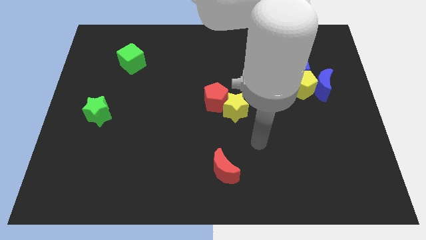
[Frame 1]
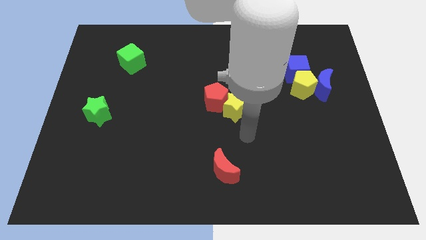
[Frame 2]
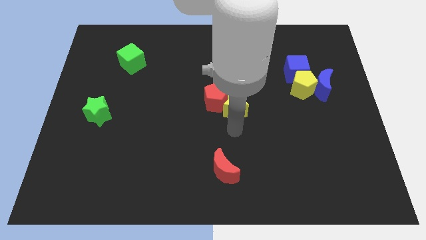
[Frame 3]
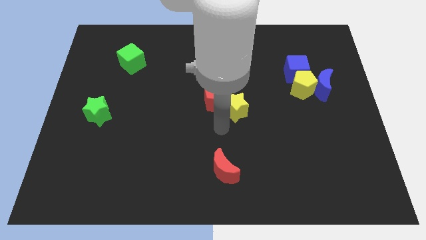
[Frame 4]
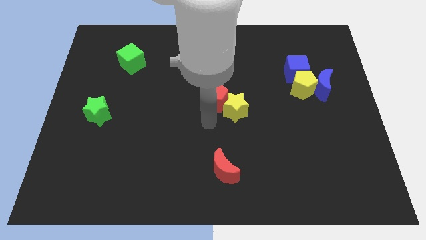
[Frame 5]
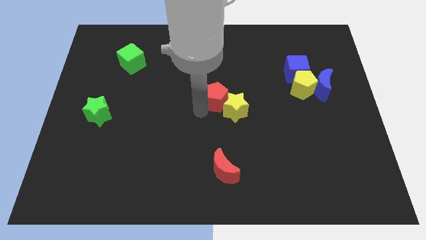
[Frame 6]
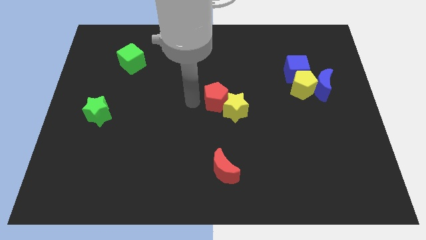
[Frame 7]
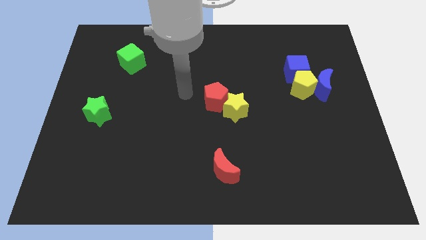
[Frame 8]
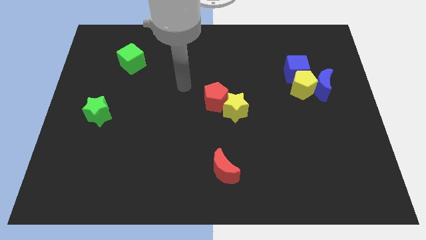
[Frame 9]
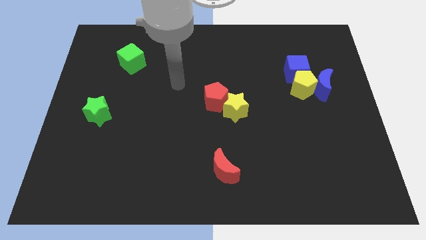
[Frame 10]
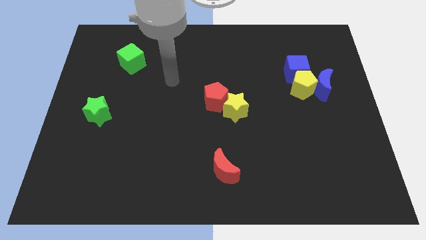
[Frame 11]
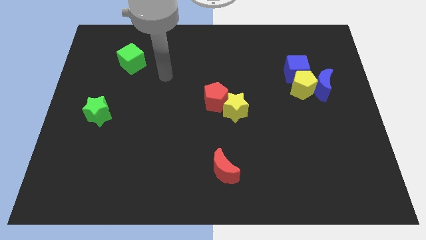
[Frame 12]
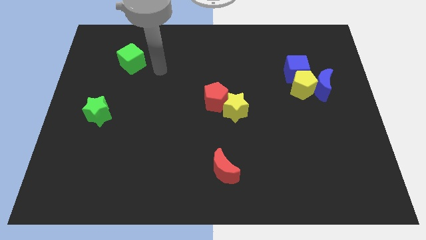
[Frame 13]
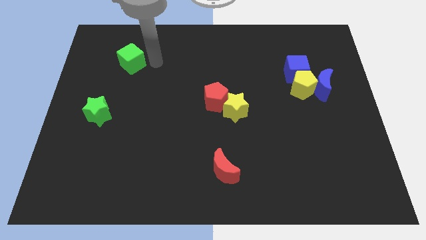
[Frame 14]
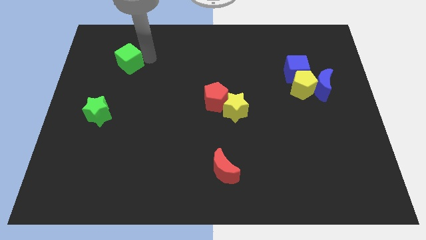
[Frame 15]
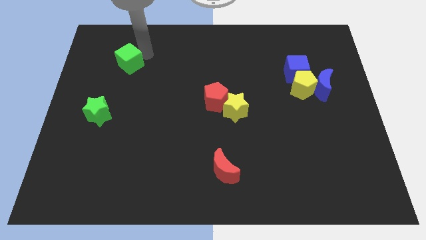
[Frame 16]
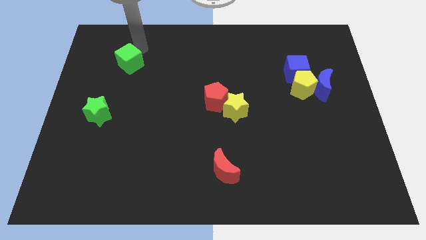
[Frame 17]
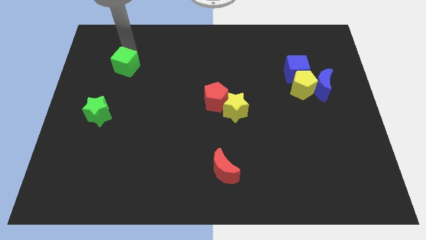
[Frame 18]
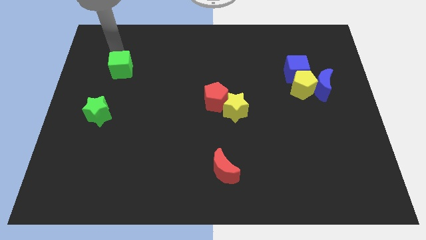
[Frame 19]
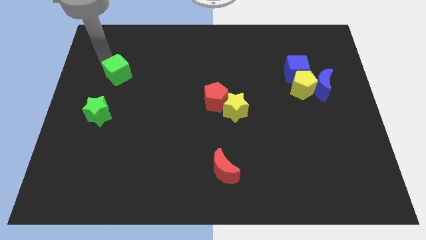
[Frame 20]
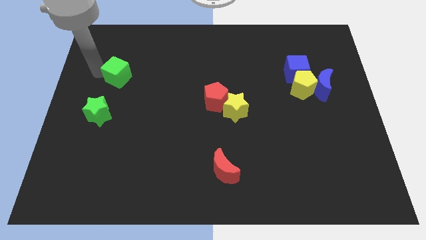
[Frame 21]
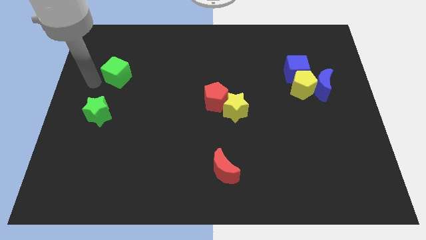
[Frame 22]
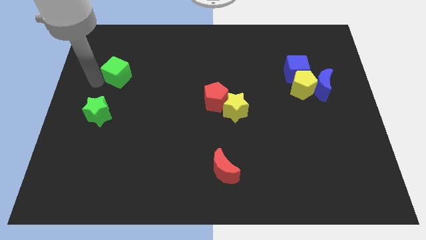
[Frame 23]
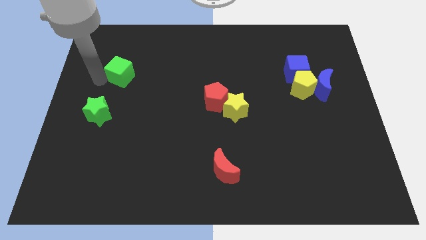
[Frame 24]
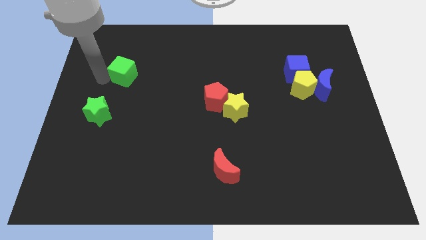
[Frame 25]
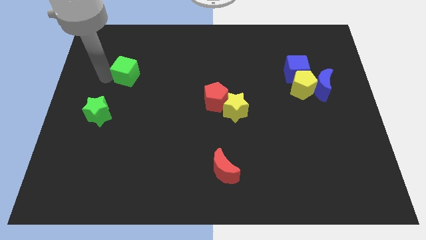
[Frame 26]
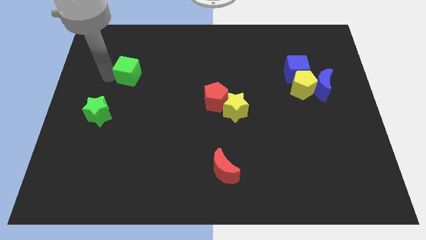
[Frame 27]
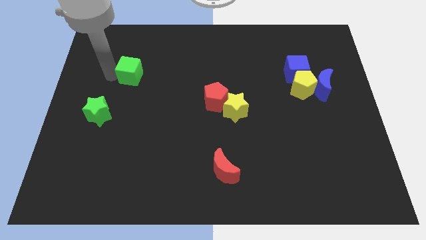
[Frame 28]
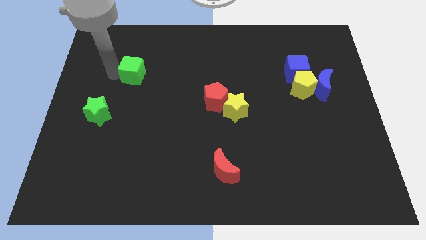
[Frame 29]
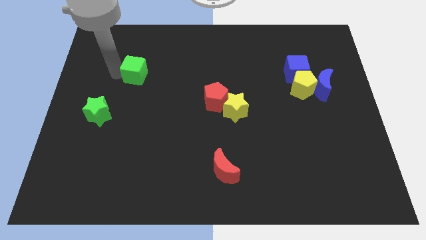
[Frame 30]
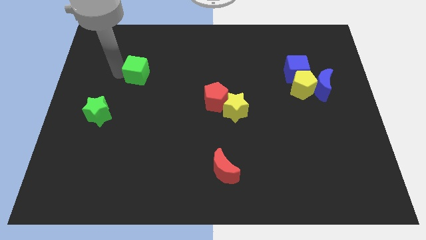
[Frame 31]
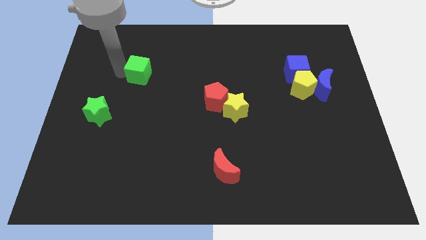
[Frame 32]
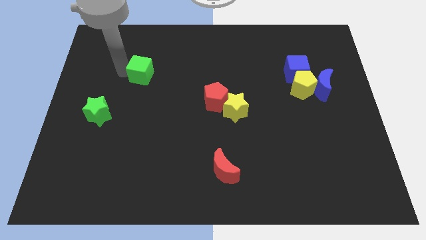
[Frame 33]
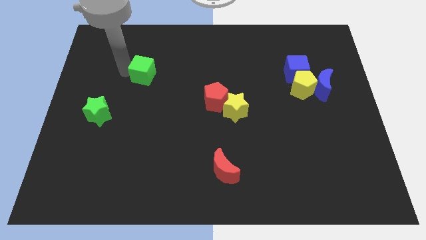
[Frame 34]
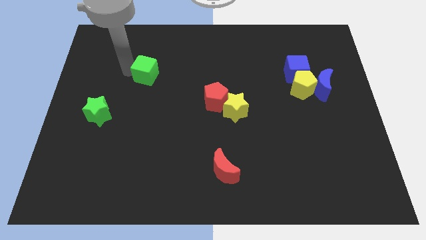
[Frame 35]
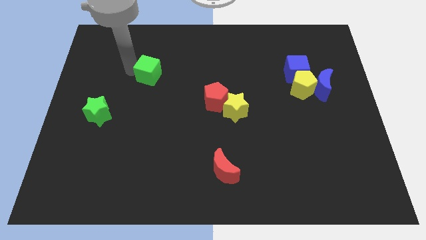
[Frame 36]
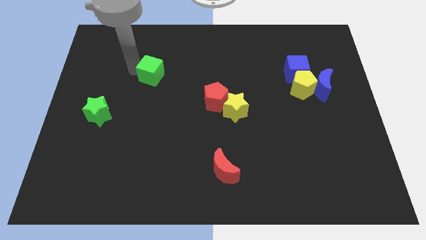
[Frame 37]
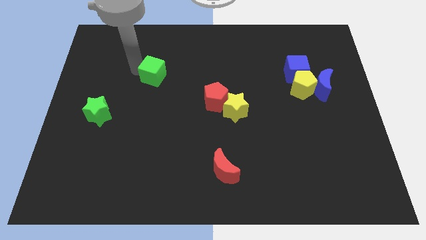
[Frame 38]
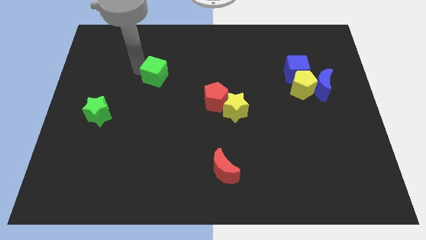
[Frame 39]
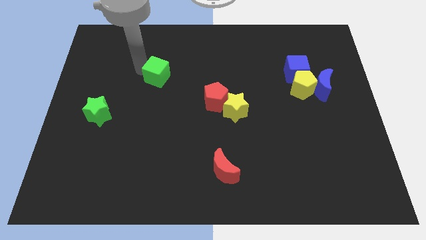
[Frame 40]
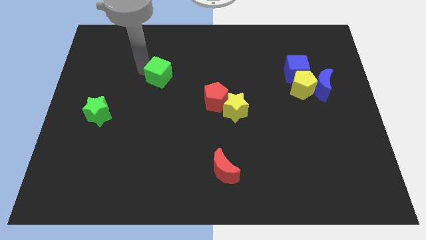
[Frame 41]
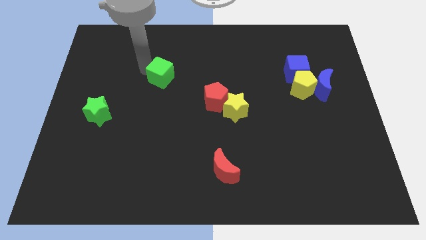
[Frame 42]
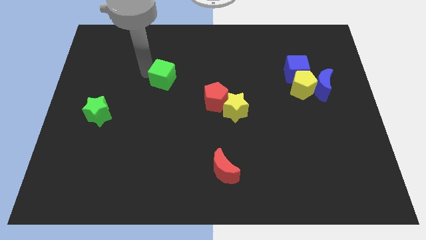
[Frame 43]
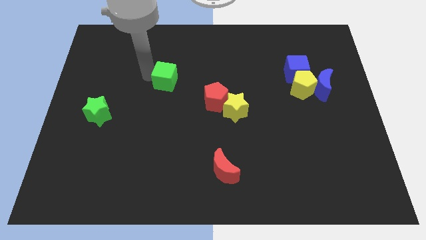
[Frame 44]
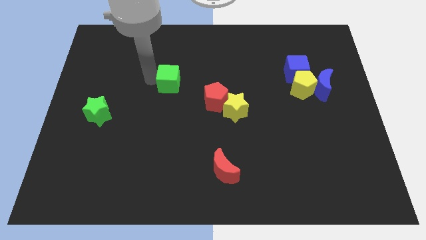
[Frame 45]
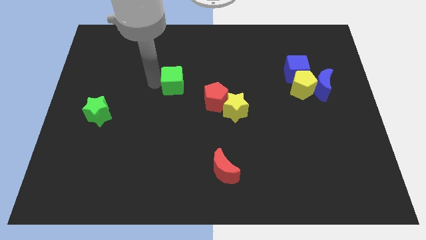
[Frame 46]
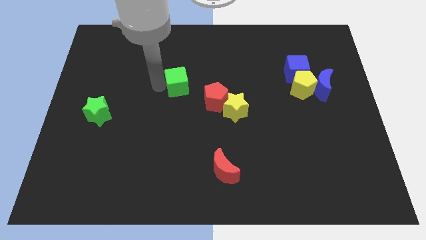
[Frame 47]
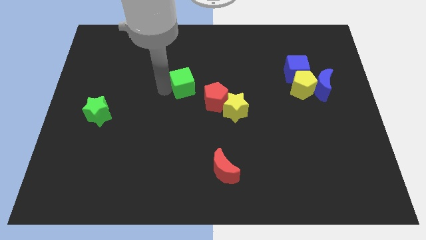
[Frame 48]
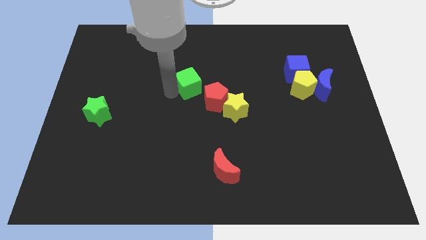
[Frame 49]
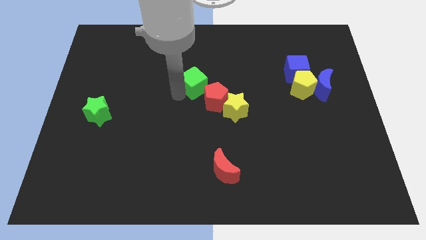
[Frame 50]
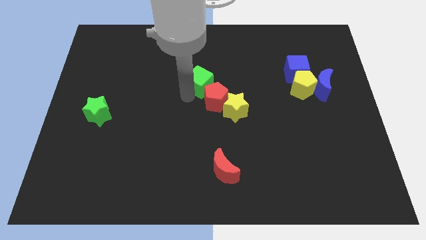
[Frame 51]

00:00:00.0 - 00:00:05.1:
put the green cube above the red pentagon

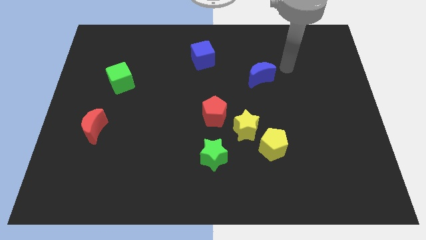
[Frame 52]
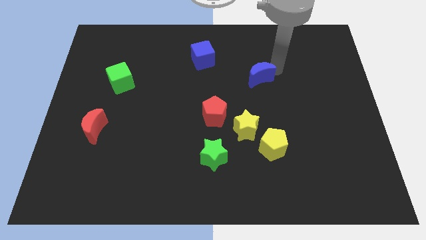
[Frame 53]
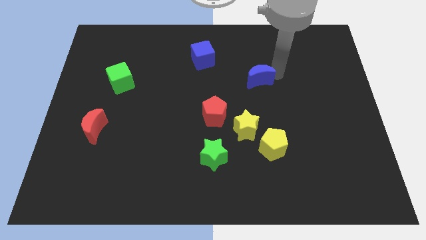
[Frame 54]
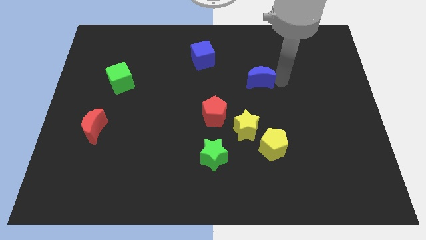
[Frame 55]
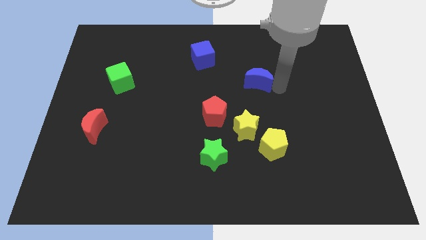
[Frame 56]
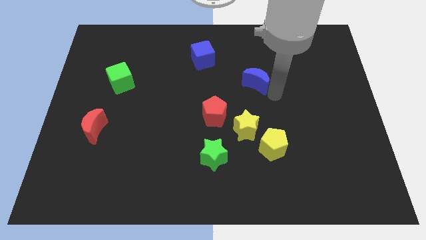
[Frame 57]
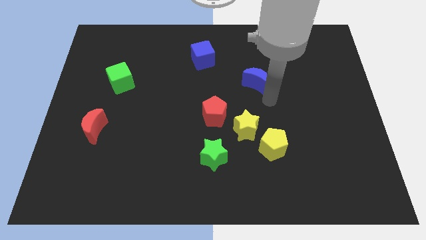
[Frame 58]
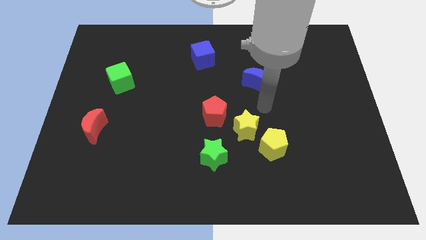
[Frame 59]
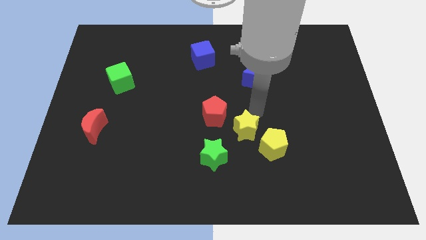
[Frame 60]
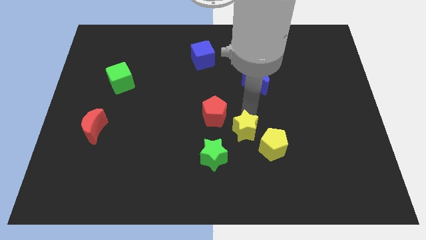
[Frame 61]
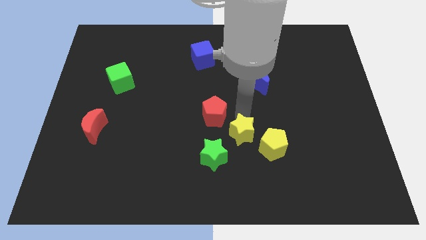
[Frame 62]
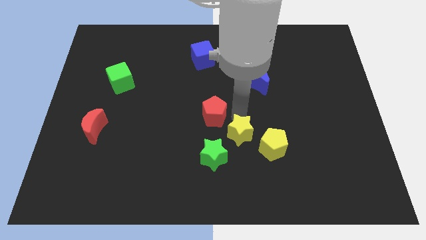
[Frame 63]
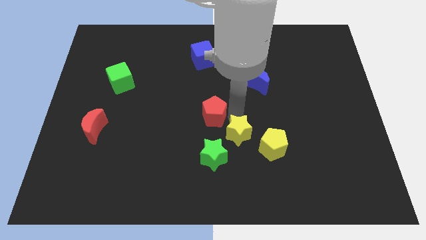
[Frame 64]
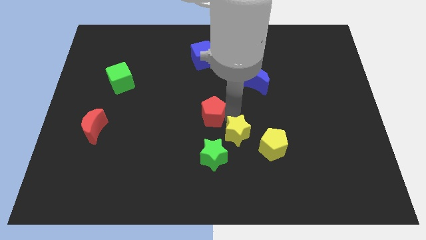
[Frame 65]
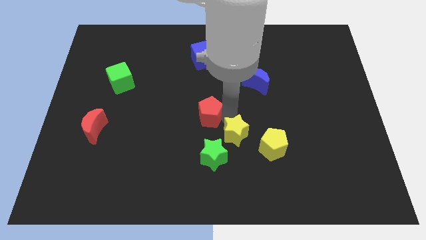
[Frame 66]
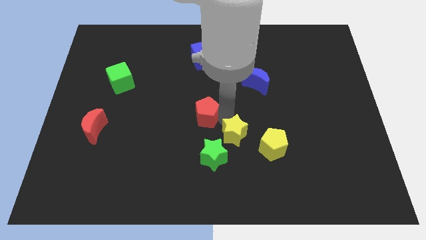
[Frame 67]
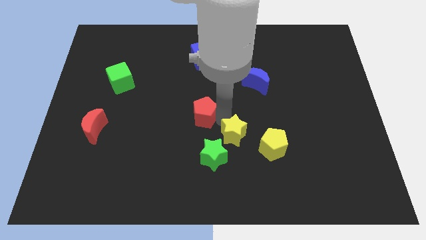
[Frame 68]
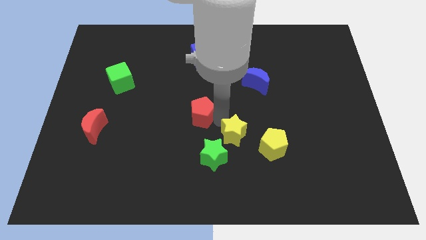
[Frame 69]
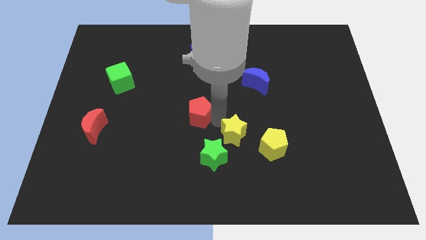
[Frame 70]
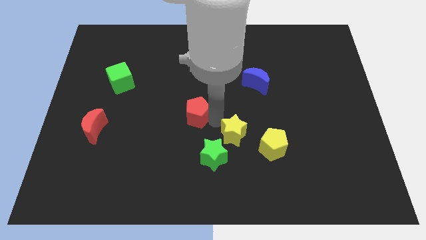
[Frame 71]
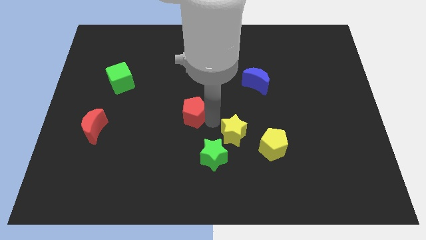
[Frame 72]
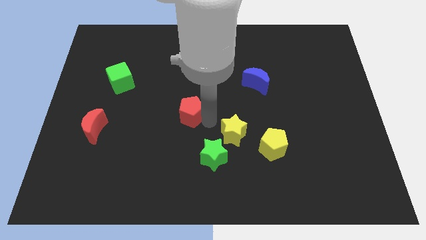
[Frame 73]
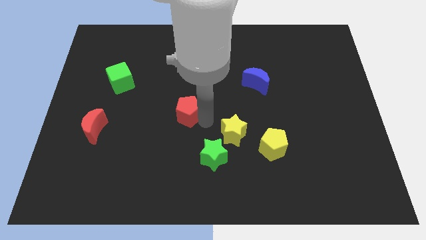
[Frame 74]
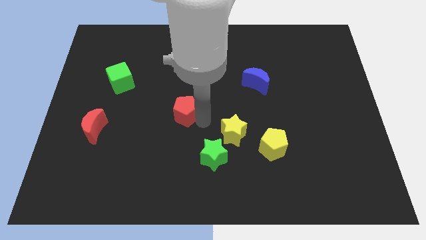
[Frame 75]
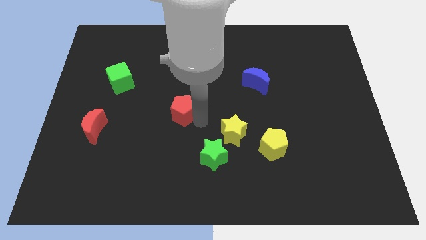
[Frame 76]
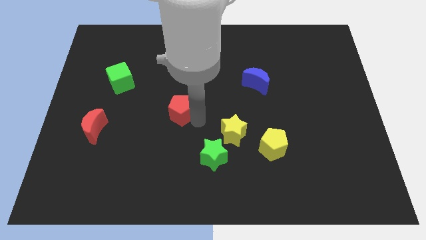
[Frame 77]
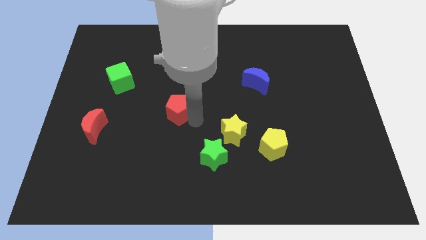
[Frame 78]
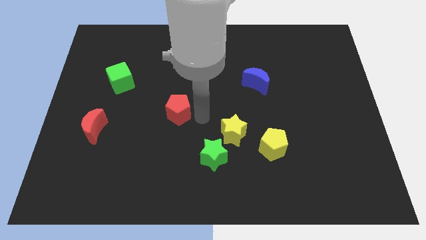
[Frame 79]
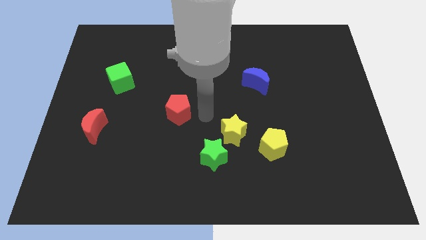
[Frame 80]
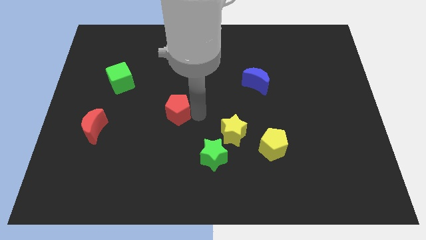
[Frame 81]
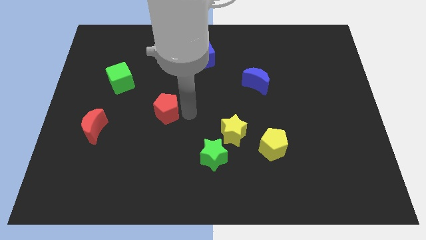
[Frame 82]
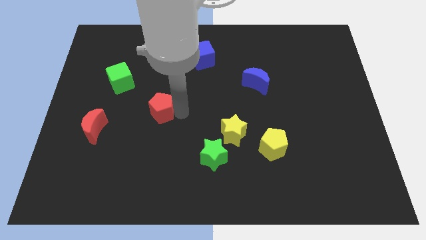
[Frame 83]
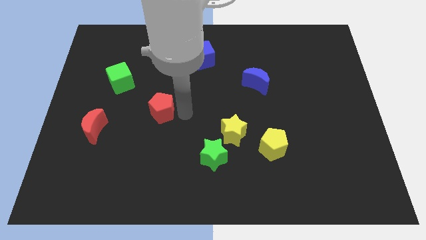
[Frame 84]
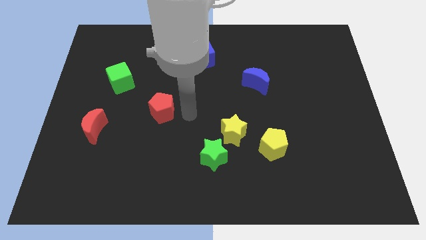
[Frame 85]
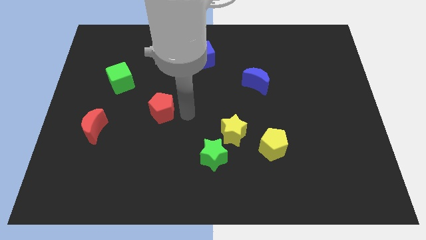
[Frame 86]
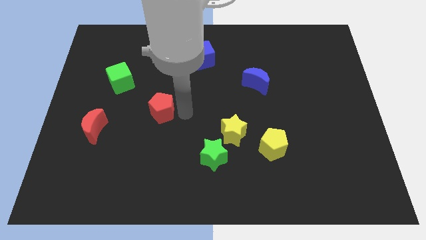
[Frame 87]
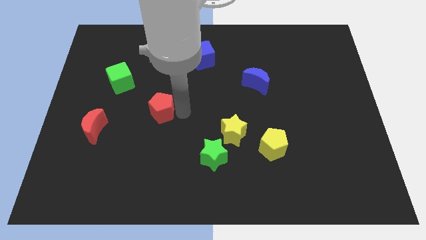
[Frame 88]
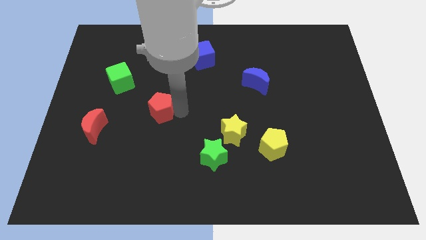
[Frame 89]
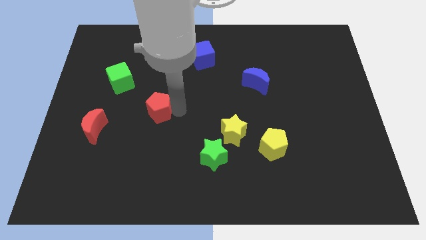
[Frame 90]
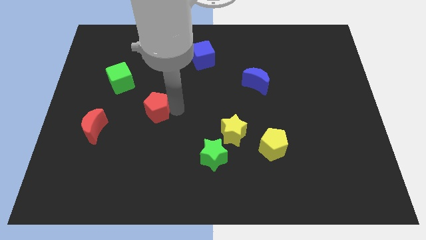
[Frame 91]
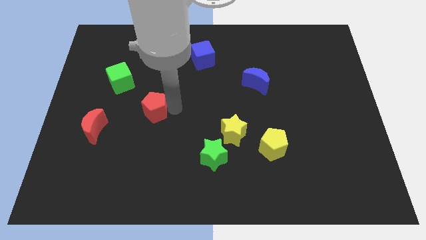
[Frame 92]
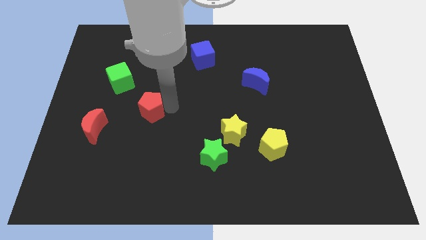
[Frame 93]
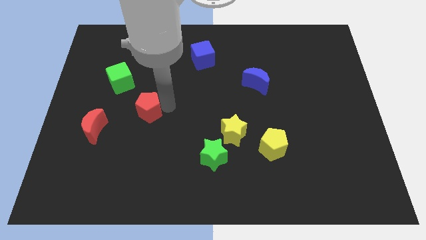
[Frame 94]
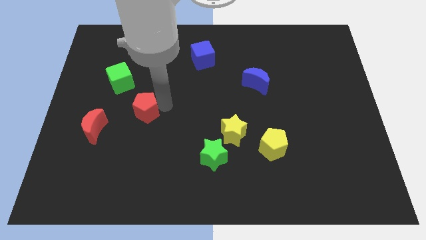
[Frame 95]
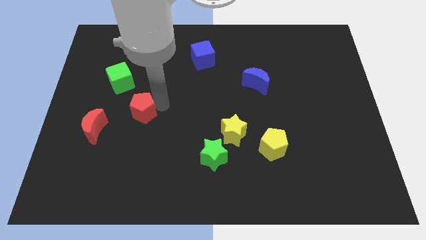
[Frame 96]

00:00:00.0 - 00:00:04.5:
push the red pentagon to the top right side of the red moon
